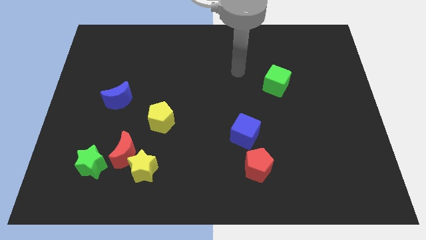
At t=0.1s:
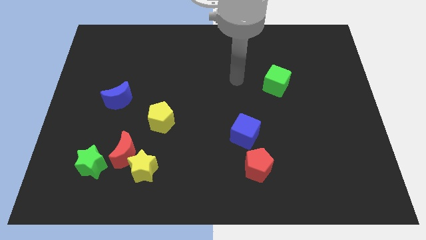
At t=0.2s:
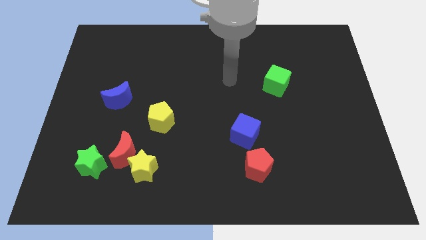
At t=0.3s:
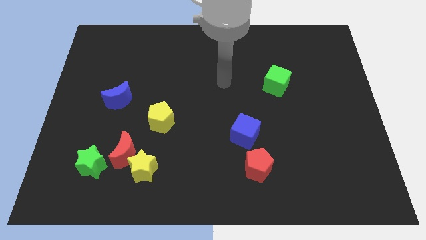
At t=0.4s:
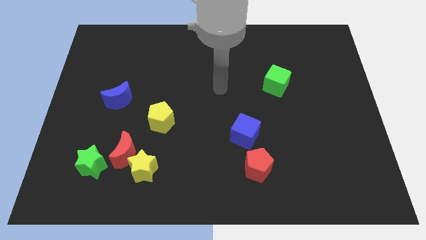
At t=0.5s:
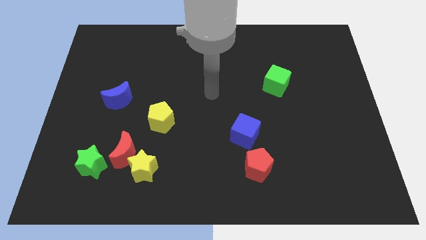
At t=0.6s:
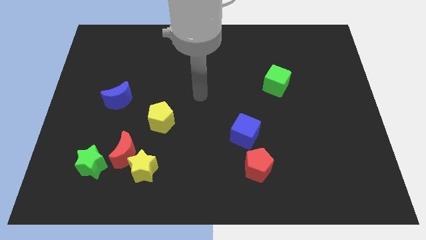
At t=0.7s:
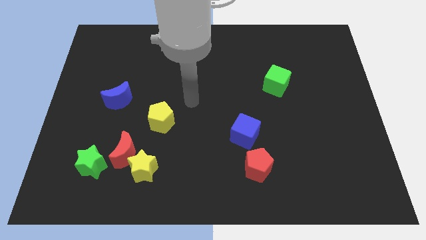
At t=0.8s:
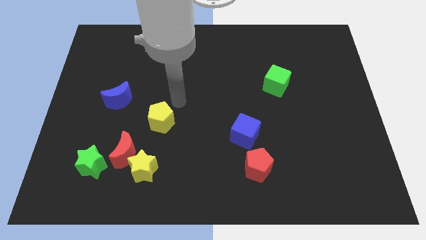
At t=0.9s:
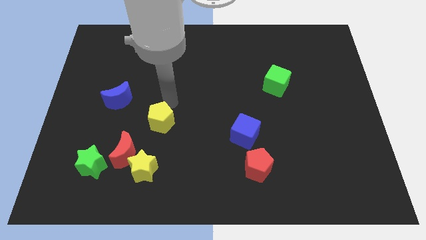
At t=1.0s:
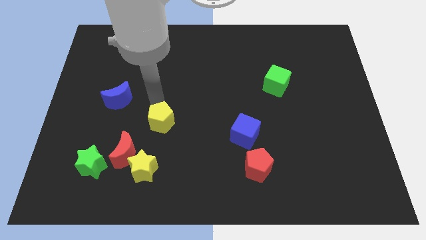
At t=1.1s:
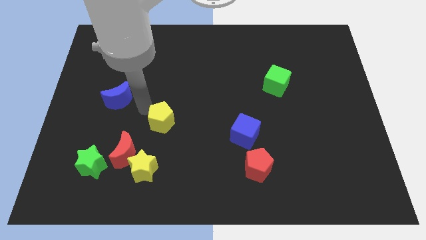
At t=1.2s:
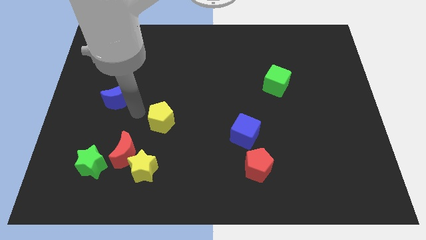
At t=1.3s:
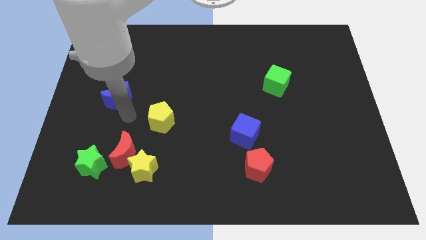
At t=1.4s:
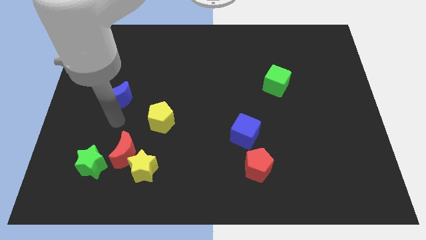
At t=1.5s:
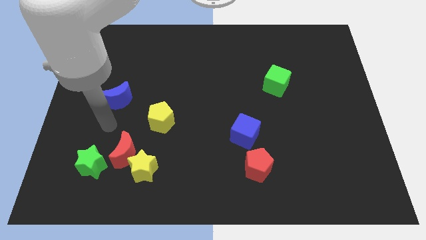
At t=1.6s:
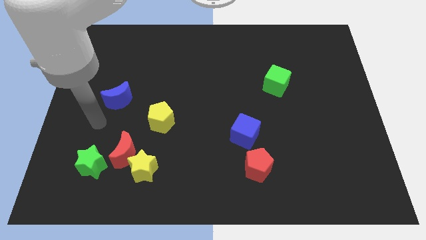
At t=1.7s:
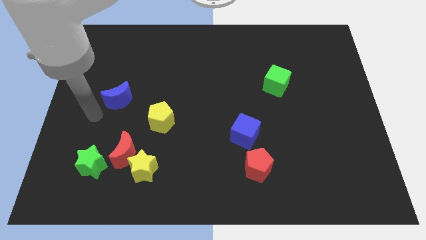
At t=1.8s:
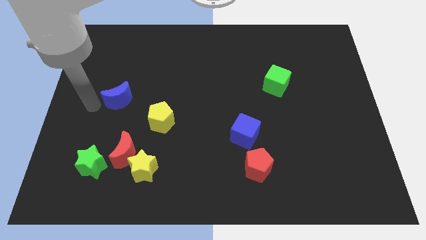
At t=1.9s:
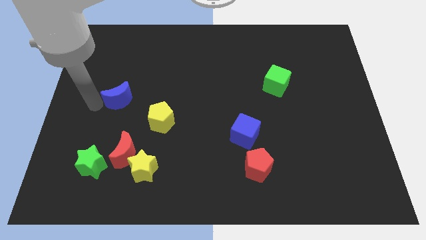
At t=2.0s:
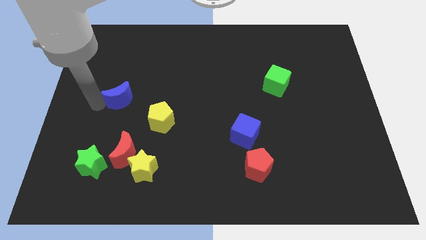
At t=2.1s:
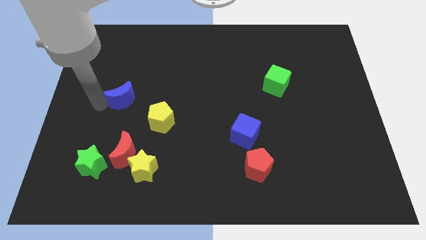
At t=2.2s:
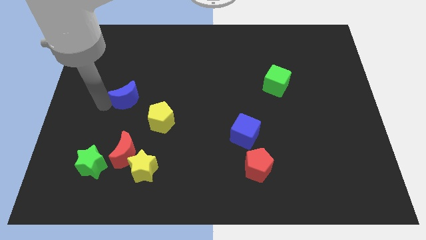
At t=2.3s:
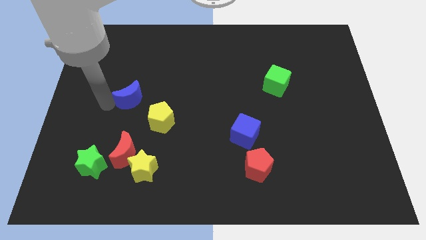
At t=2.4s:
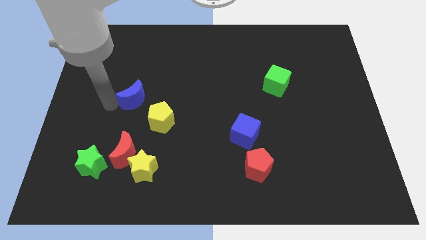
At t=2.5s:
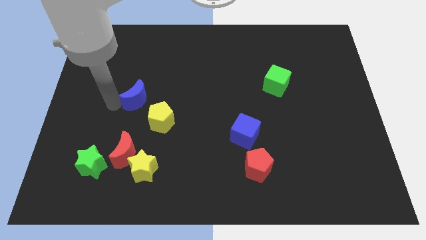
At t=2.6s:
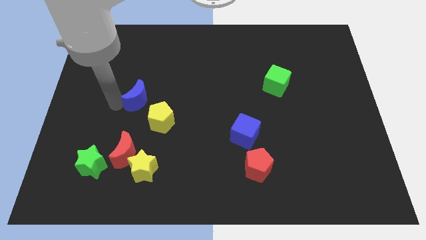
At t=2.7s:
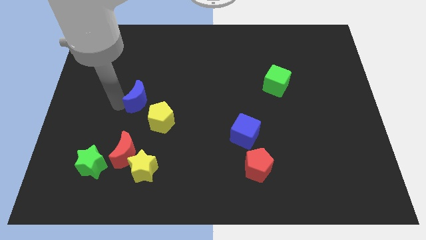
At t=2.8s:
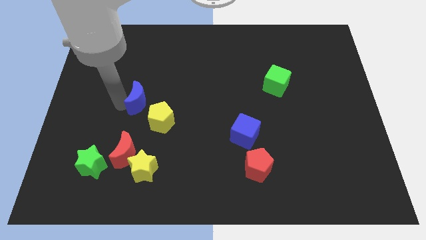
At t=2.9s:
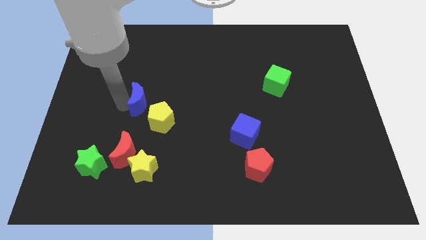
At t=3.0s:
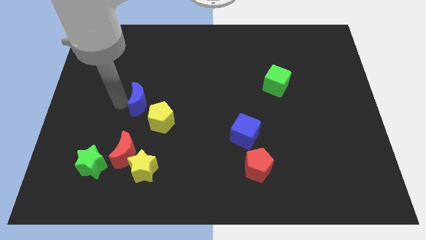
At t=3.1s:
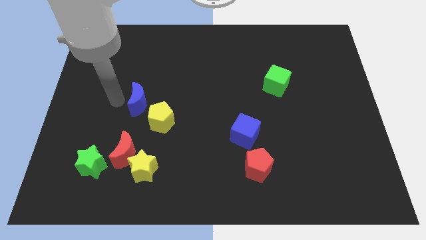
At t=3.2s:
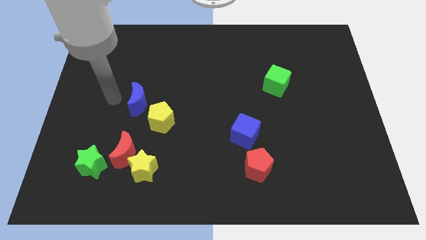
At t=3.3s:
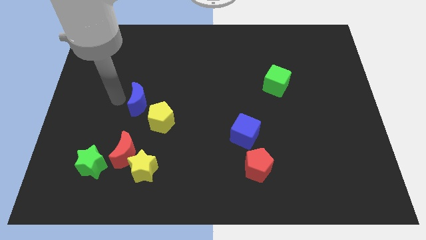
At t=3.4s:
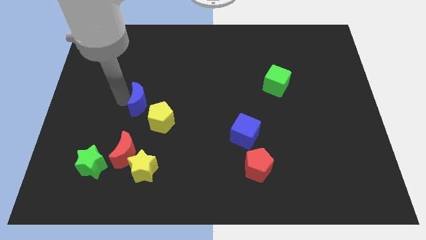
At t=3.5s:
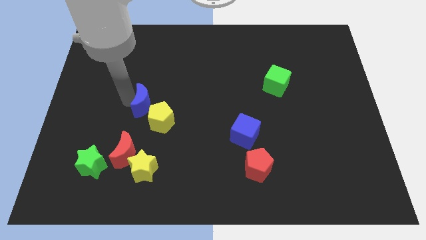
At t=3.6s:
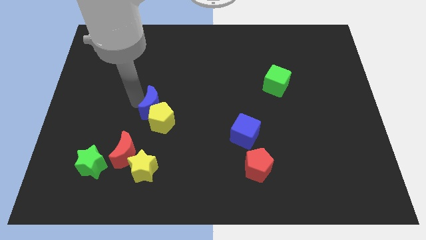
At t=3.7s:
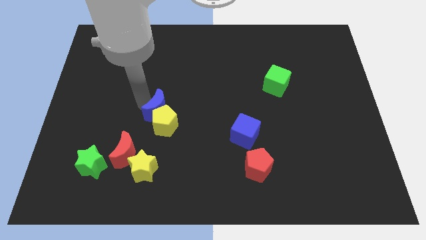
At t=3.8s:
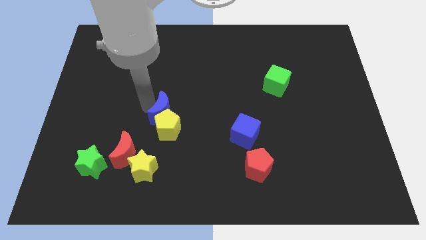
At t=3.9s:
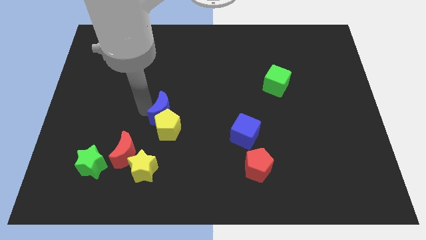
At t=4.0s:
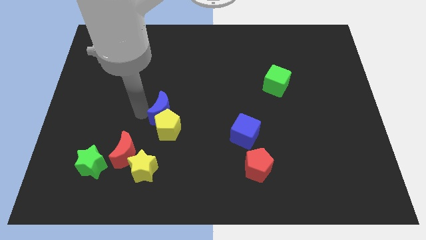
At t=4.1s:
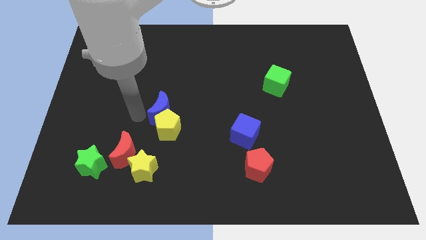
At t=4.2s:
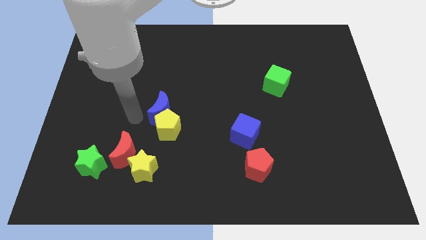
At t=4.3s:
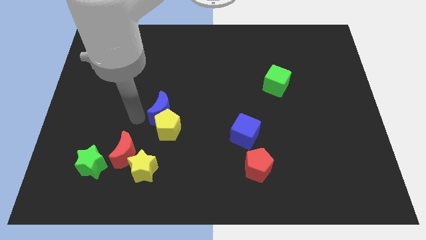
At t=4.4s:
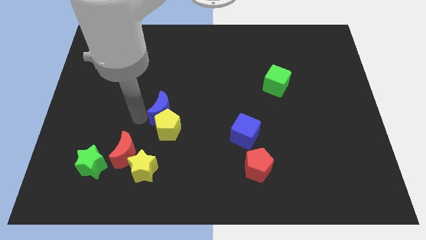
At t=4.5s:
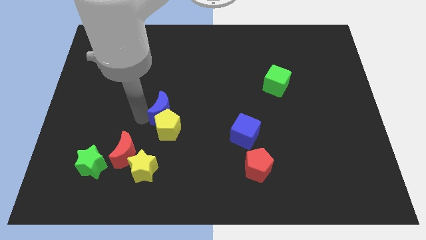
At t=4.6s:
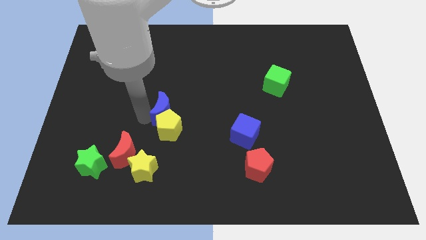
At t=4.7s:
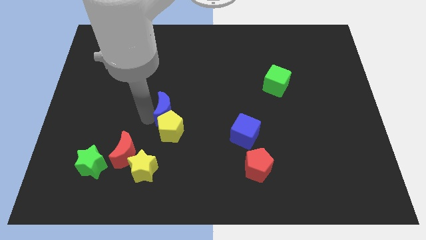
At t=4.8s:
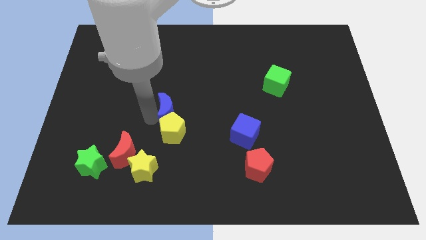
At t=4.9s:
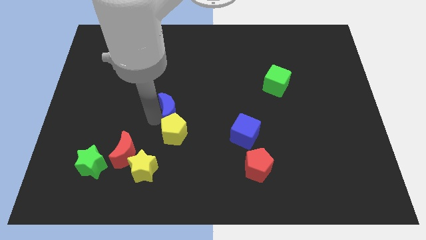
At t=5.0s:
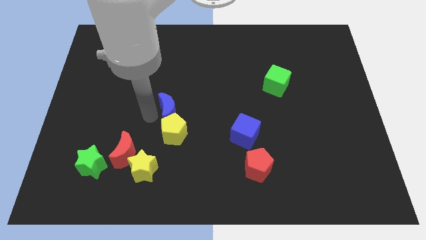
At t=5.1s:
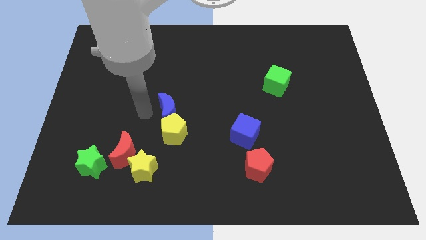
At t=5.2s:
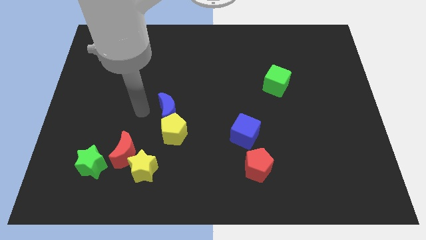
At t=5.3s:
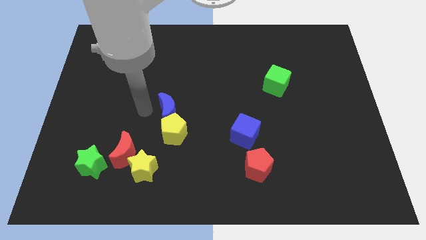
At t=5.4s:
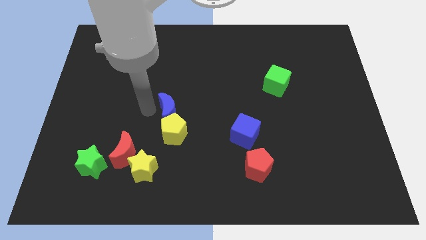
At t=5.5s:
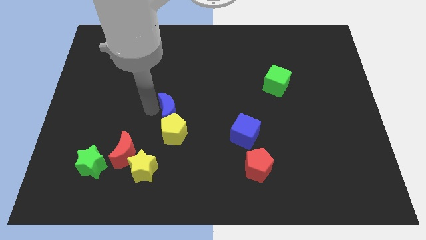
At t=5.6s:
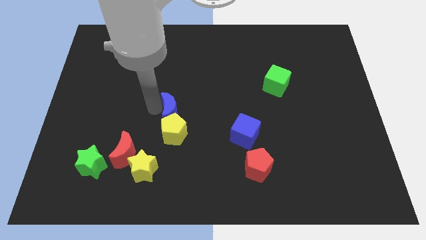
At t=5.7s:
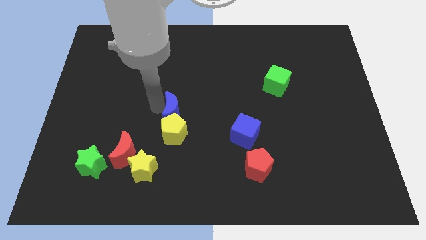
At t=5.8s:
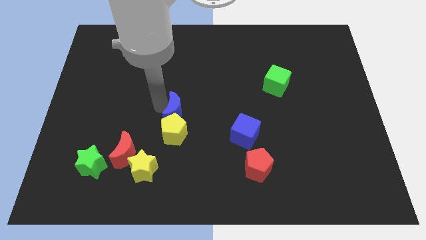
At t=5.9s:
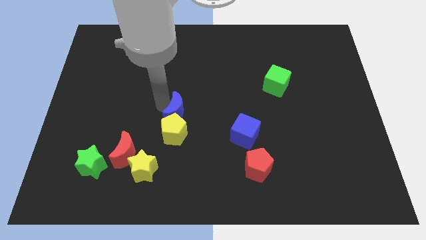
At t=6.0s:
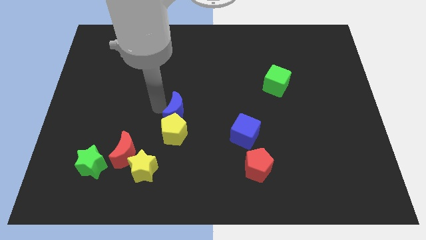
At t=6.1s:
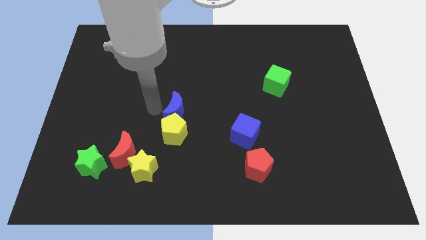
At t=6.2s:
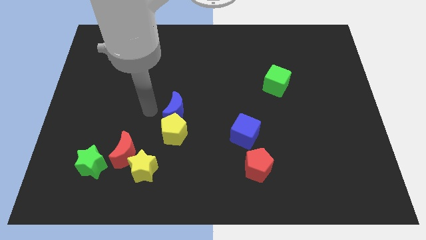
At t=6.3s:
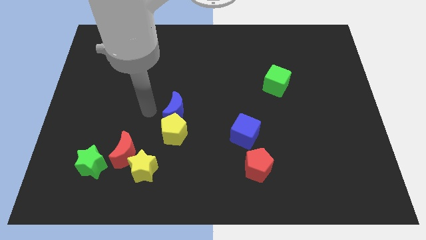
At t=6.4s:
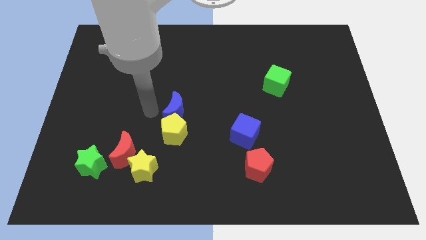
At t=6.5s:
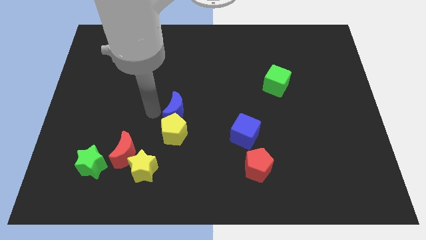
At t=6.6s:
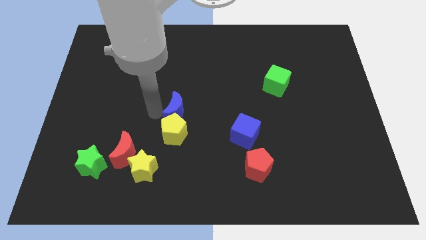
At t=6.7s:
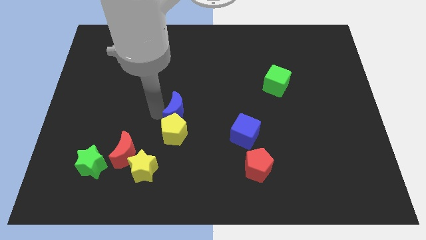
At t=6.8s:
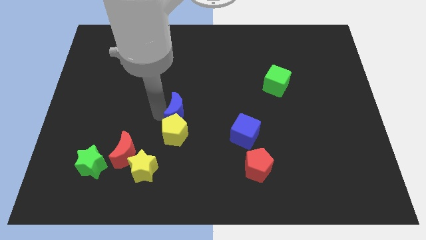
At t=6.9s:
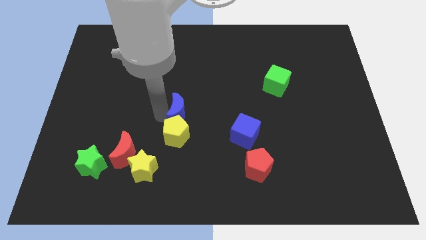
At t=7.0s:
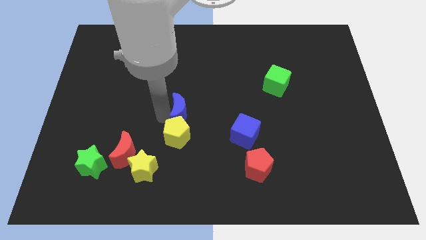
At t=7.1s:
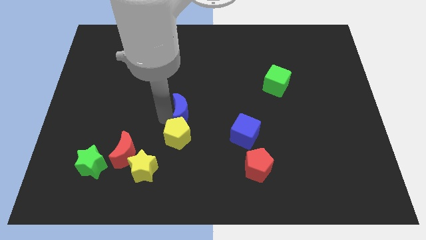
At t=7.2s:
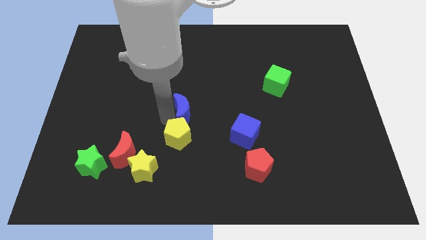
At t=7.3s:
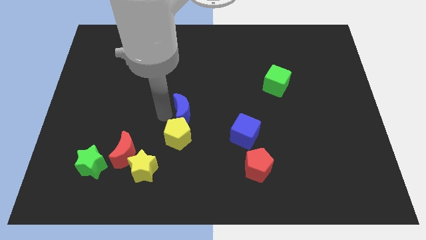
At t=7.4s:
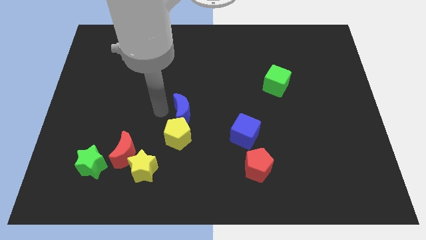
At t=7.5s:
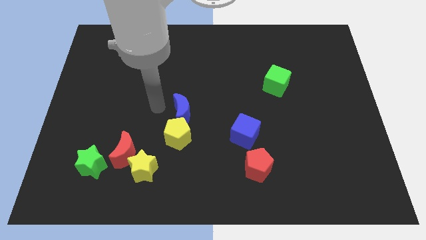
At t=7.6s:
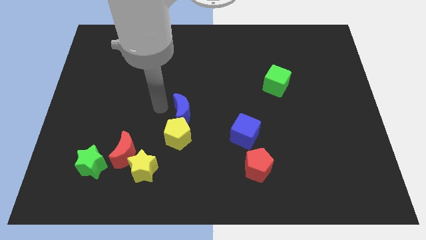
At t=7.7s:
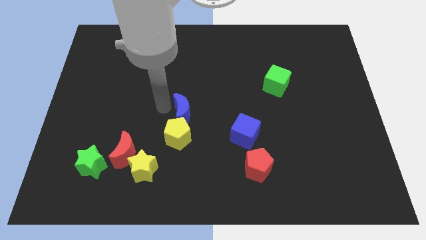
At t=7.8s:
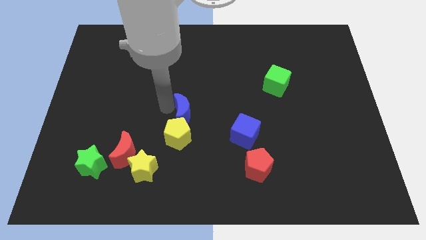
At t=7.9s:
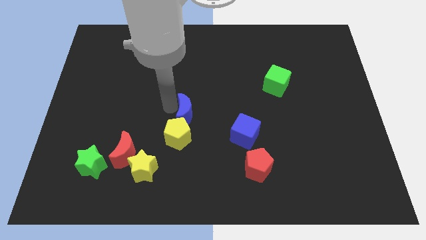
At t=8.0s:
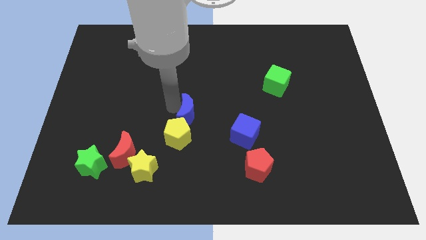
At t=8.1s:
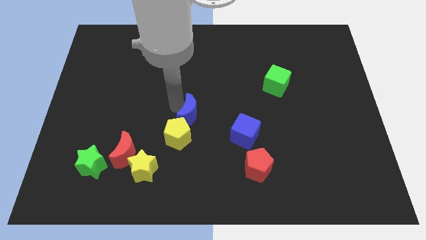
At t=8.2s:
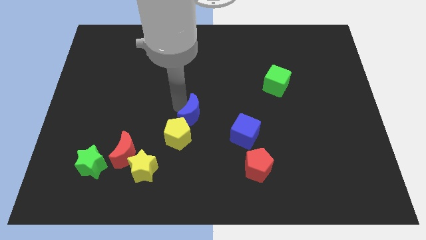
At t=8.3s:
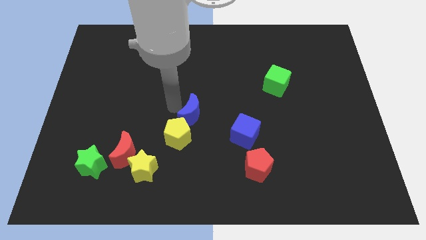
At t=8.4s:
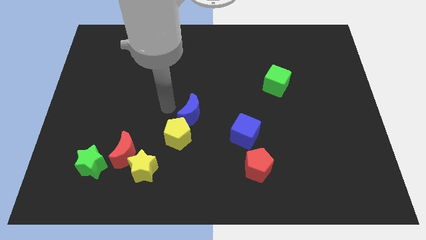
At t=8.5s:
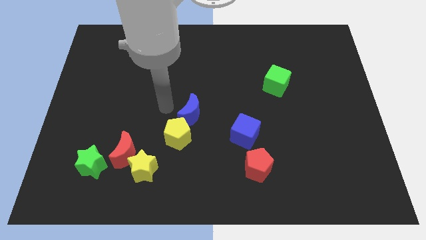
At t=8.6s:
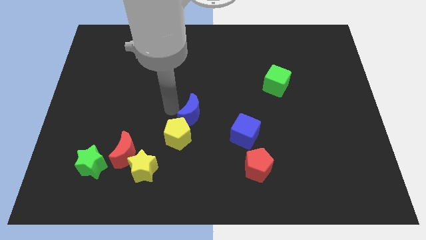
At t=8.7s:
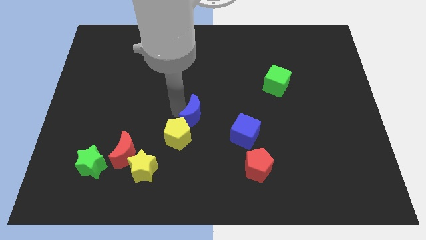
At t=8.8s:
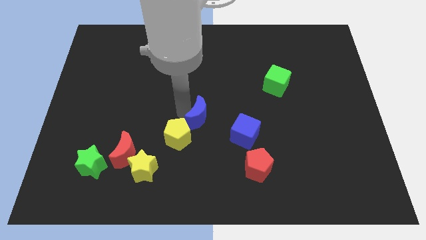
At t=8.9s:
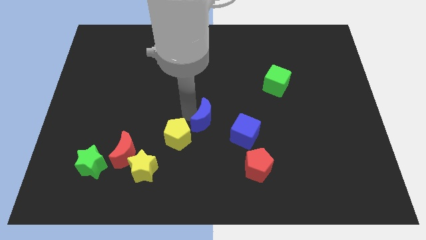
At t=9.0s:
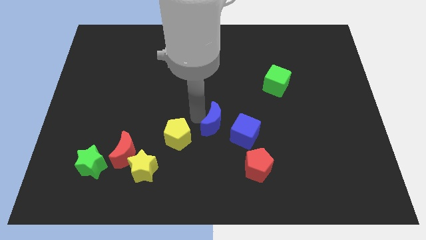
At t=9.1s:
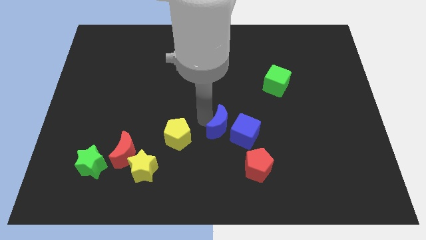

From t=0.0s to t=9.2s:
push the blue moon next to the blue cube
